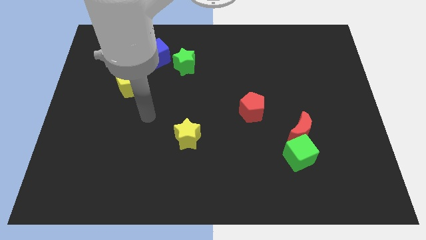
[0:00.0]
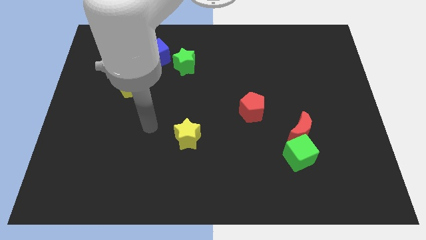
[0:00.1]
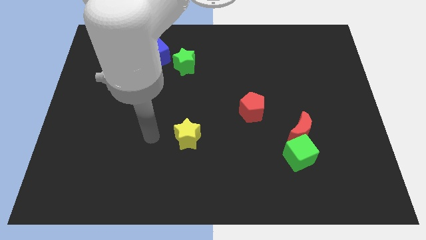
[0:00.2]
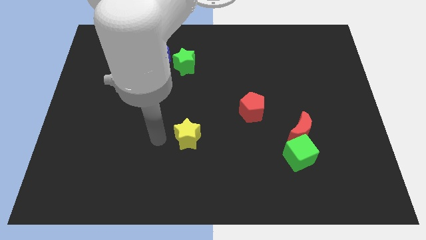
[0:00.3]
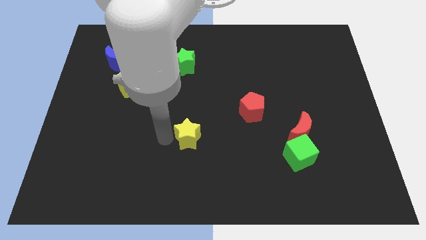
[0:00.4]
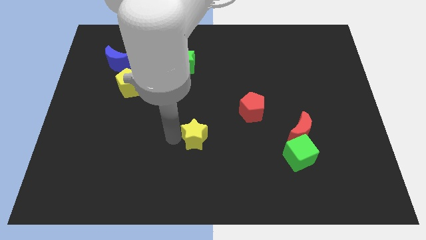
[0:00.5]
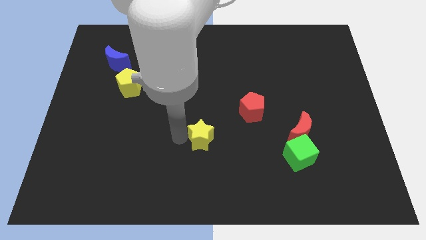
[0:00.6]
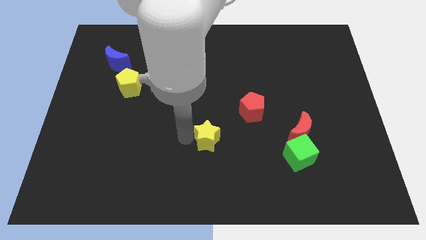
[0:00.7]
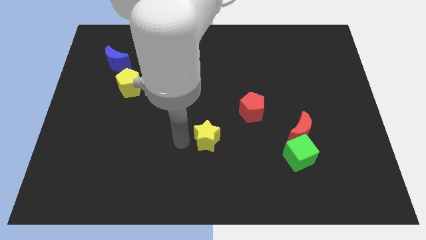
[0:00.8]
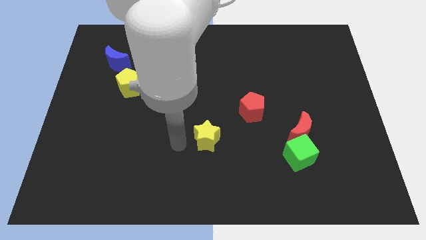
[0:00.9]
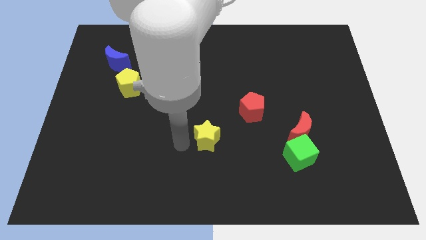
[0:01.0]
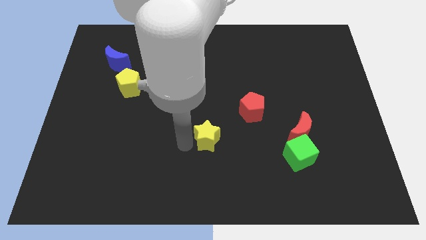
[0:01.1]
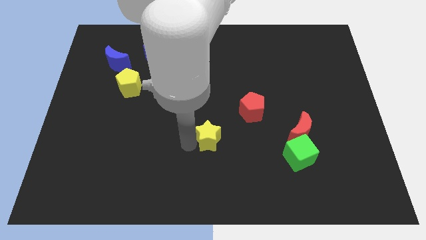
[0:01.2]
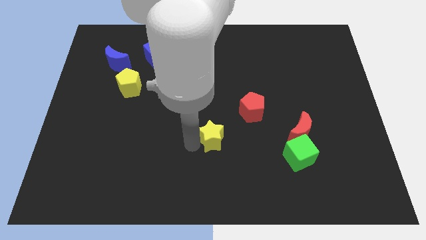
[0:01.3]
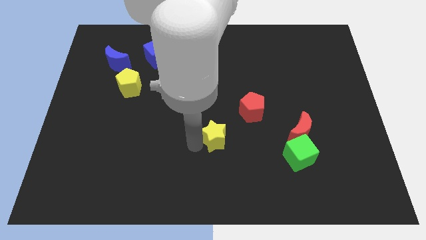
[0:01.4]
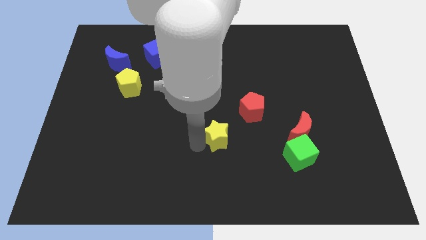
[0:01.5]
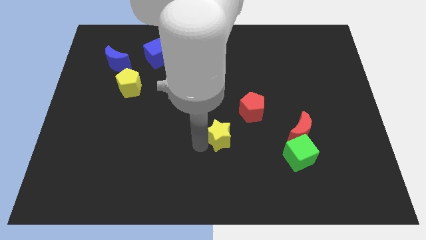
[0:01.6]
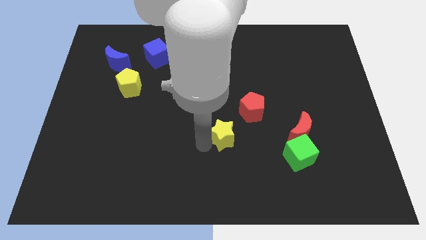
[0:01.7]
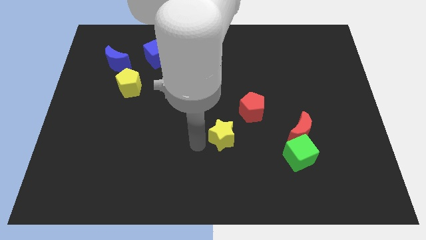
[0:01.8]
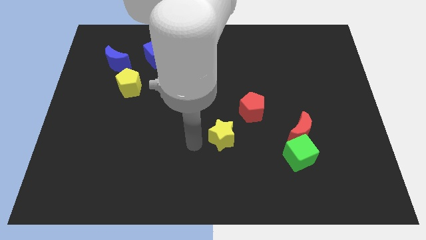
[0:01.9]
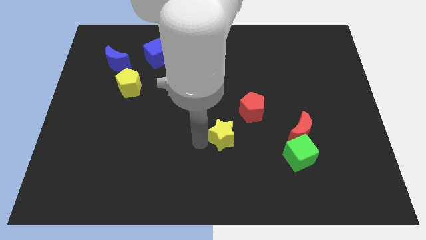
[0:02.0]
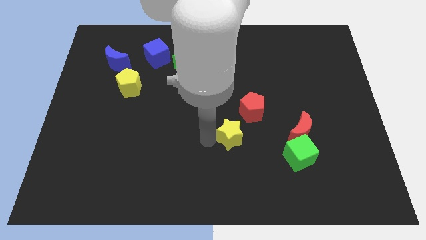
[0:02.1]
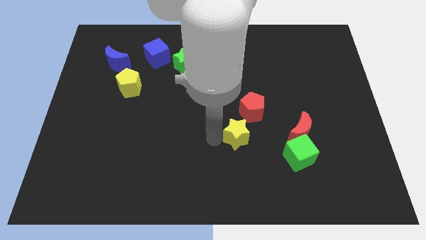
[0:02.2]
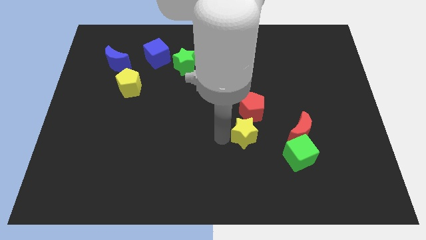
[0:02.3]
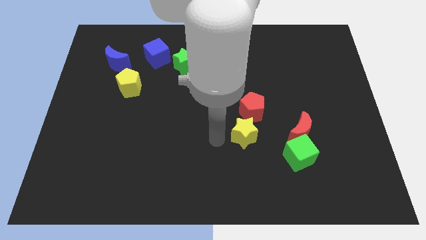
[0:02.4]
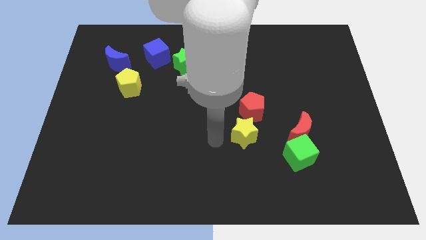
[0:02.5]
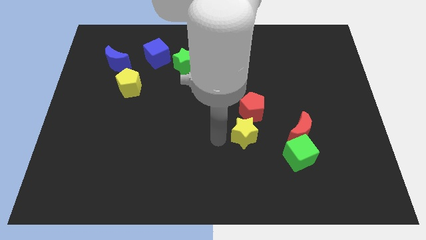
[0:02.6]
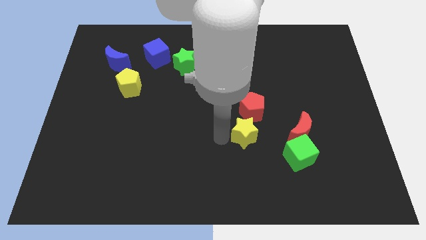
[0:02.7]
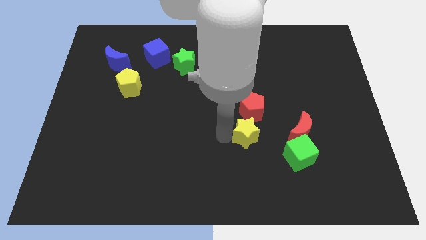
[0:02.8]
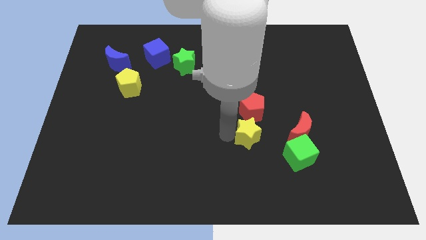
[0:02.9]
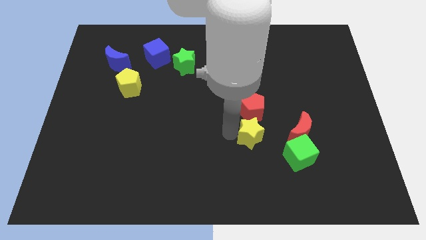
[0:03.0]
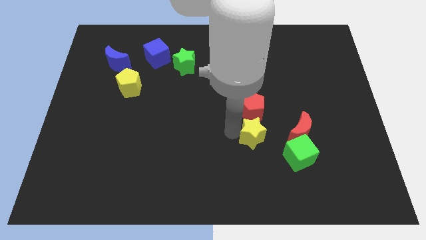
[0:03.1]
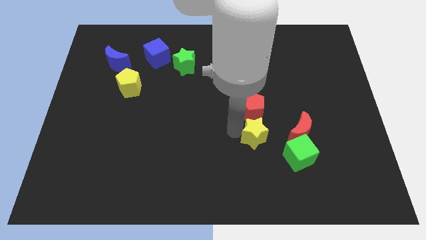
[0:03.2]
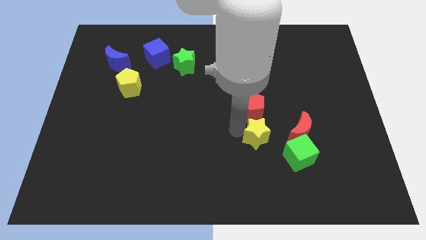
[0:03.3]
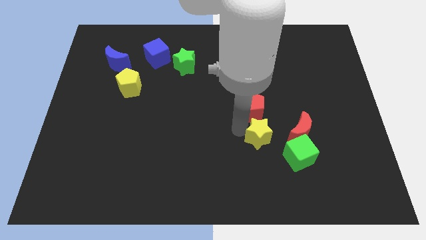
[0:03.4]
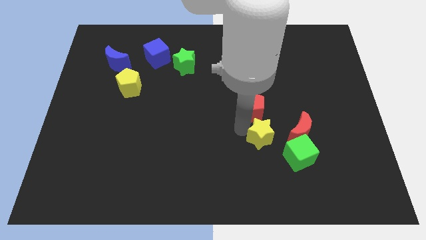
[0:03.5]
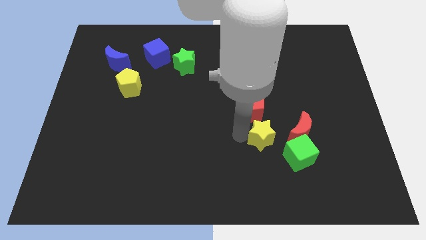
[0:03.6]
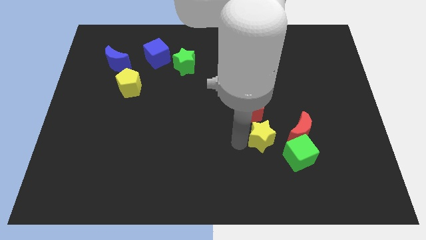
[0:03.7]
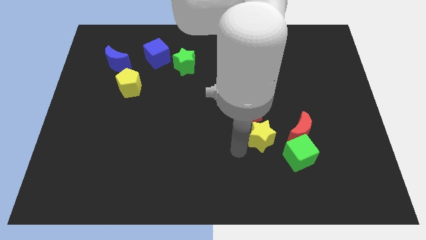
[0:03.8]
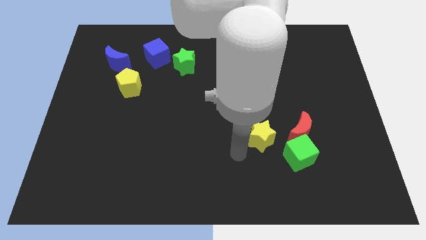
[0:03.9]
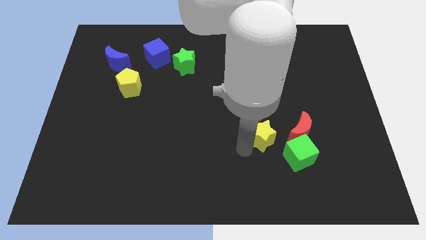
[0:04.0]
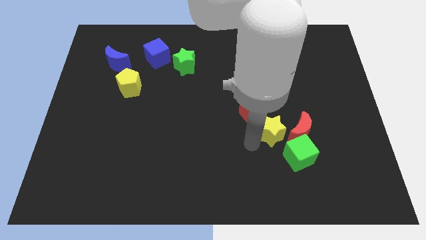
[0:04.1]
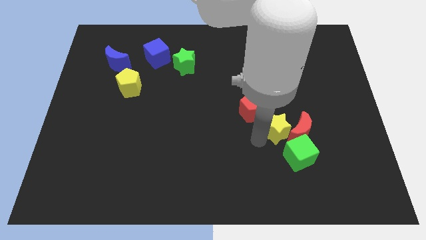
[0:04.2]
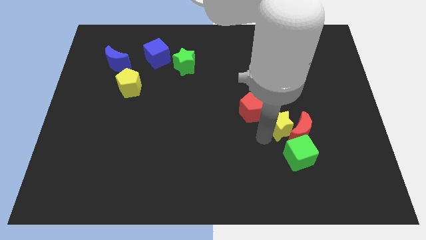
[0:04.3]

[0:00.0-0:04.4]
slide the yellow star right

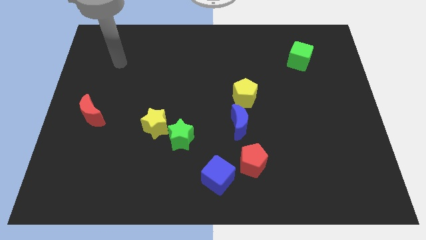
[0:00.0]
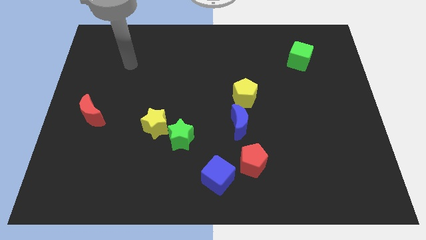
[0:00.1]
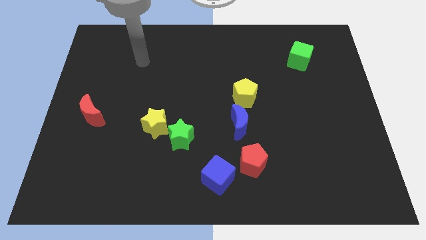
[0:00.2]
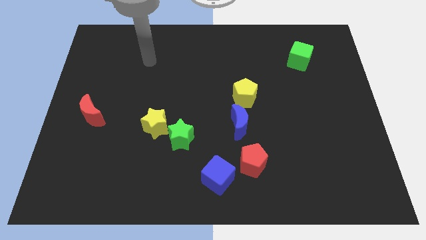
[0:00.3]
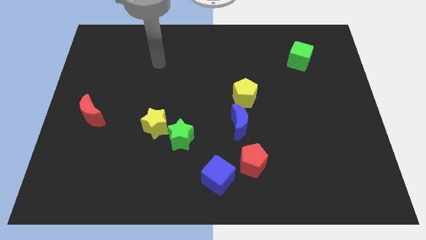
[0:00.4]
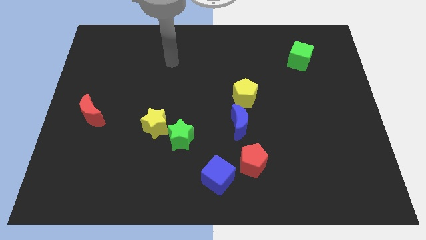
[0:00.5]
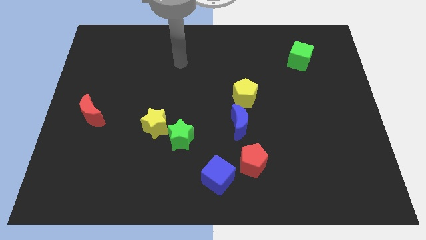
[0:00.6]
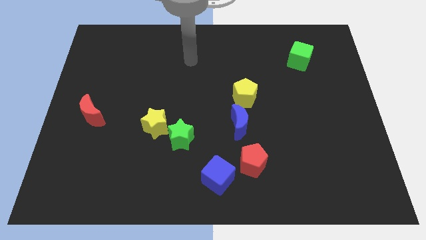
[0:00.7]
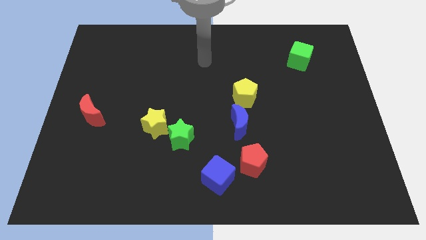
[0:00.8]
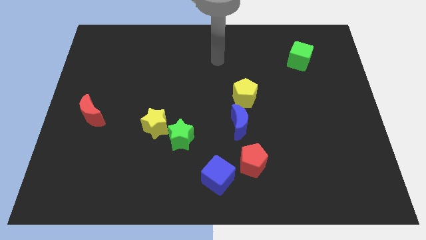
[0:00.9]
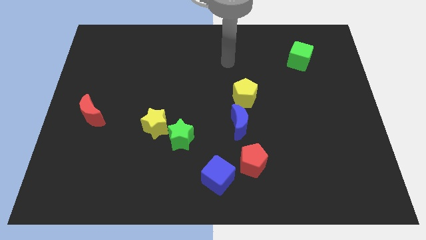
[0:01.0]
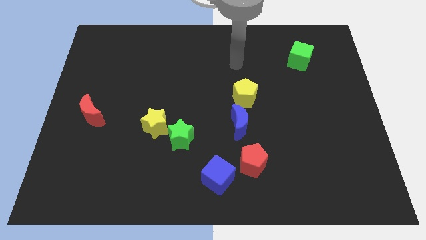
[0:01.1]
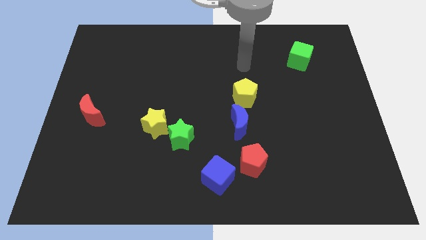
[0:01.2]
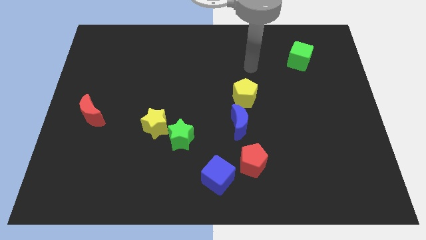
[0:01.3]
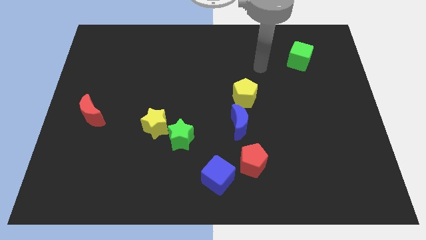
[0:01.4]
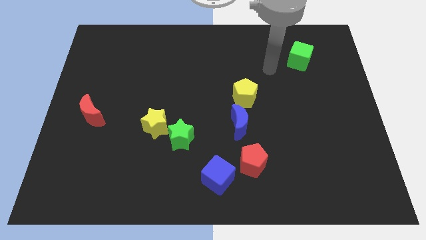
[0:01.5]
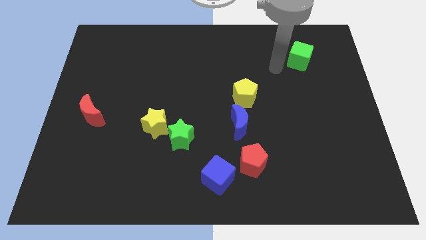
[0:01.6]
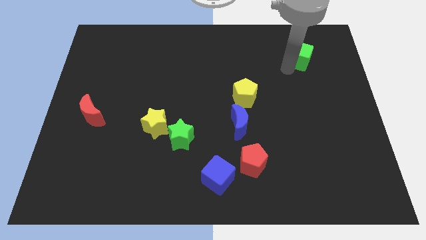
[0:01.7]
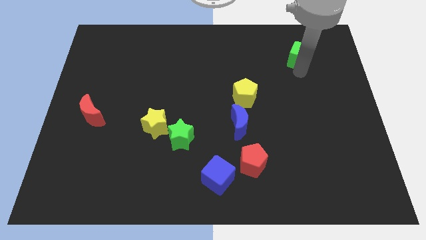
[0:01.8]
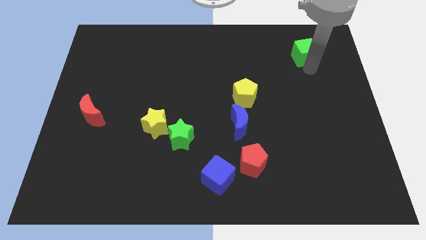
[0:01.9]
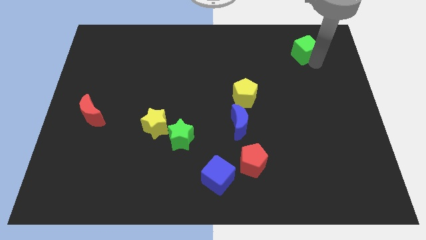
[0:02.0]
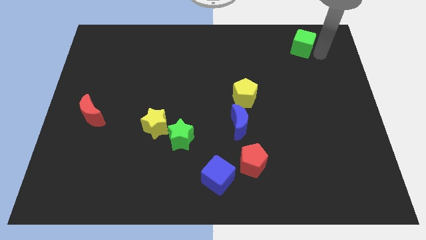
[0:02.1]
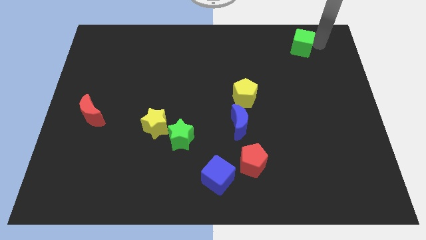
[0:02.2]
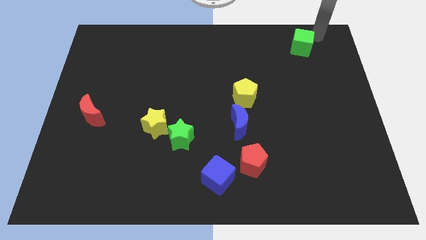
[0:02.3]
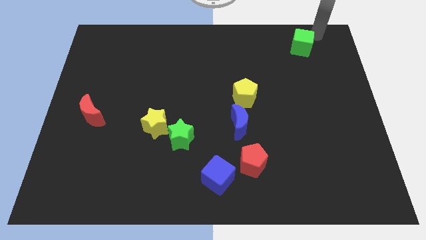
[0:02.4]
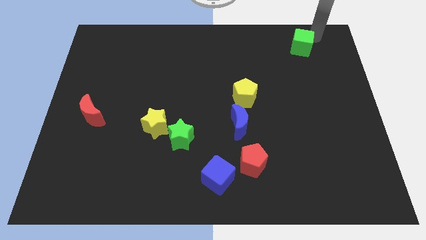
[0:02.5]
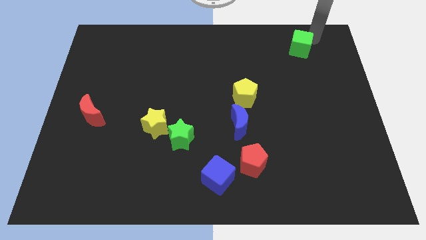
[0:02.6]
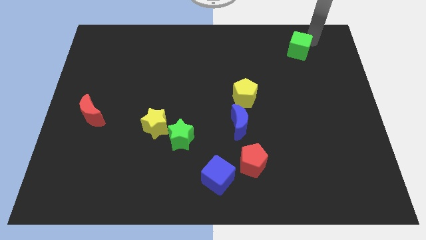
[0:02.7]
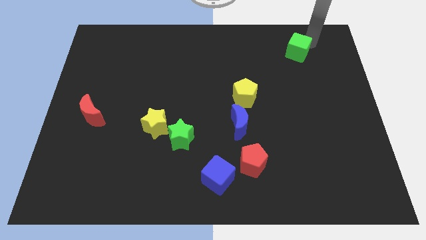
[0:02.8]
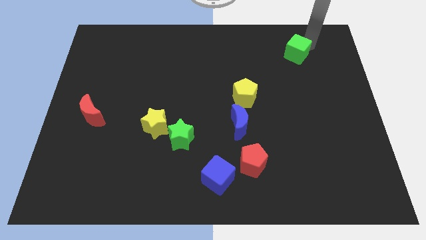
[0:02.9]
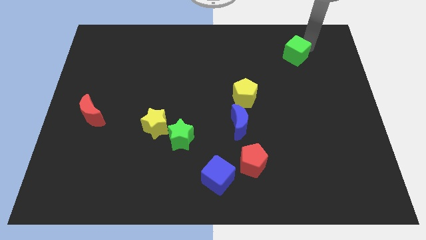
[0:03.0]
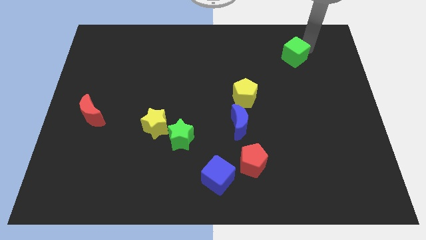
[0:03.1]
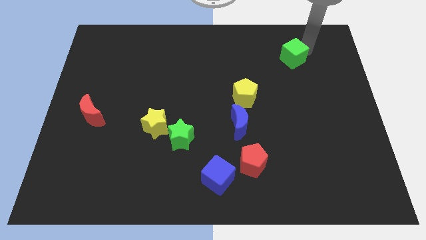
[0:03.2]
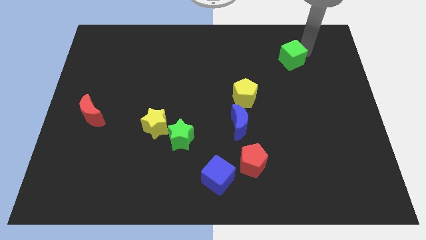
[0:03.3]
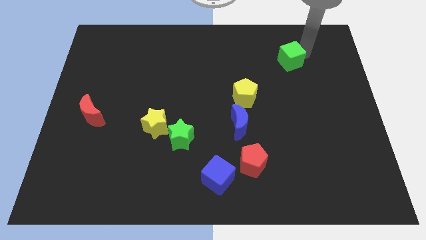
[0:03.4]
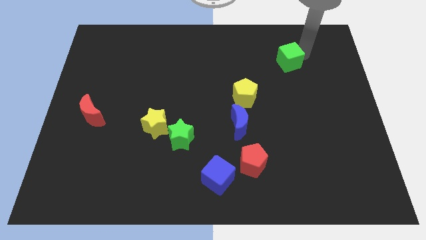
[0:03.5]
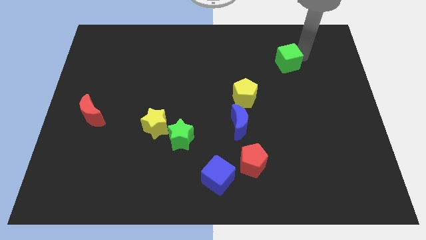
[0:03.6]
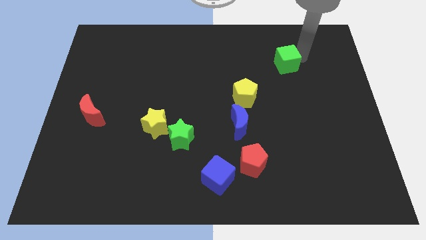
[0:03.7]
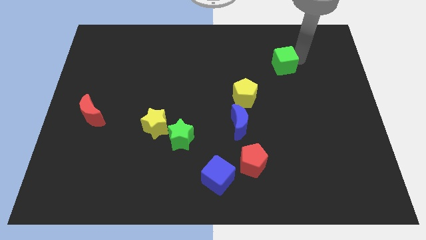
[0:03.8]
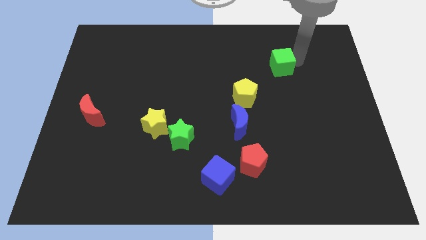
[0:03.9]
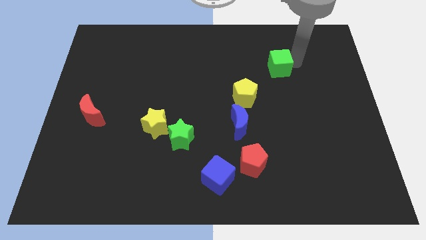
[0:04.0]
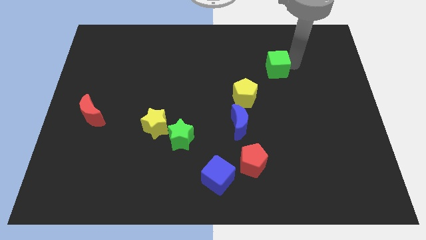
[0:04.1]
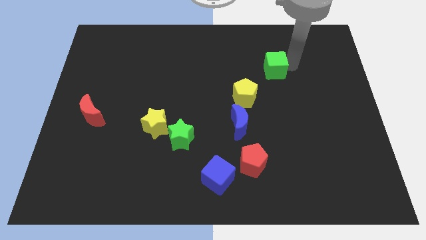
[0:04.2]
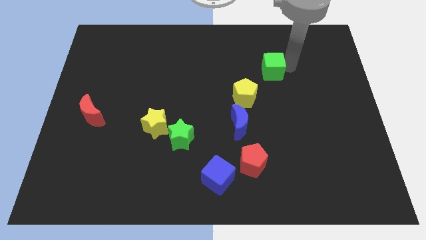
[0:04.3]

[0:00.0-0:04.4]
slide the green cube a little left
